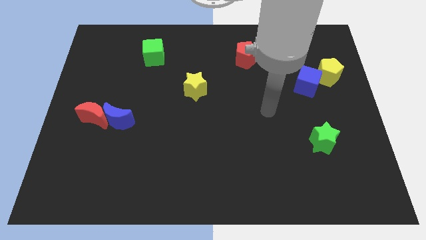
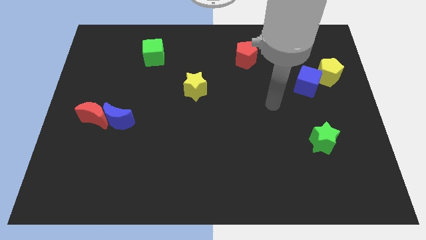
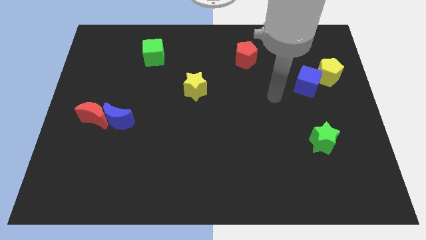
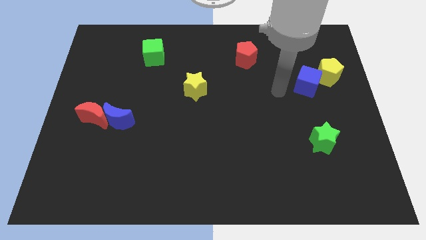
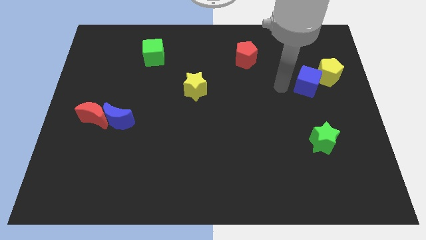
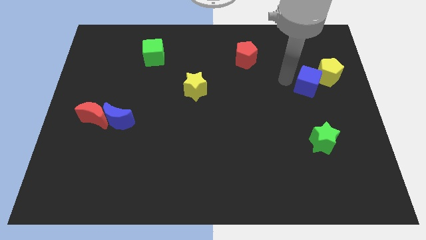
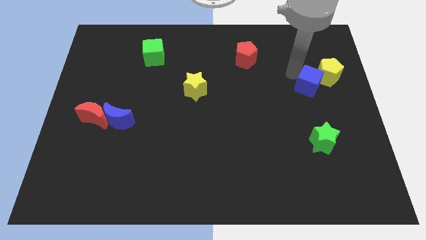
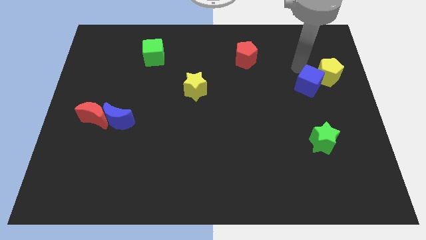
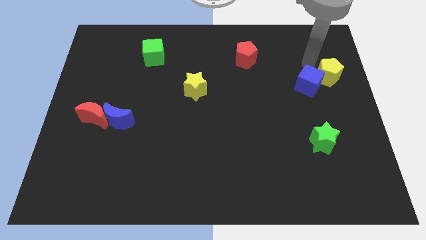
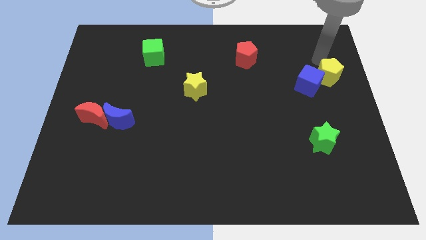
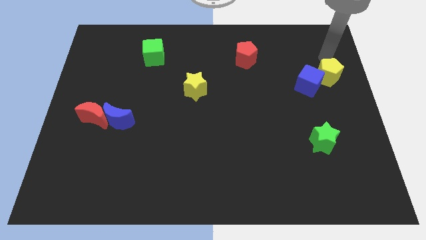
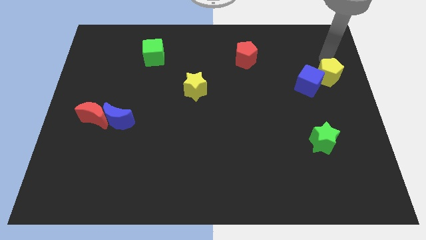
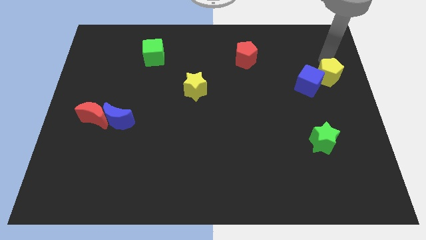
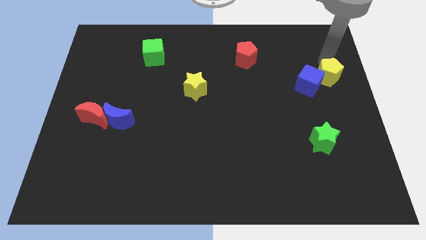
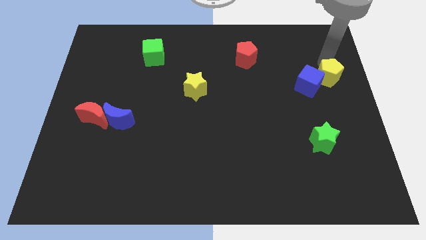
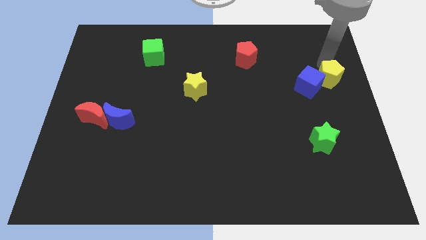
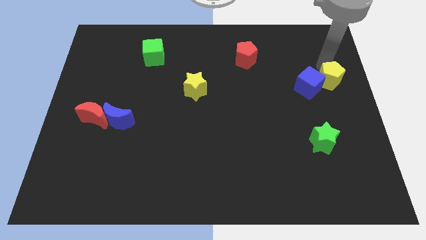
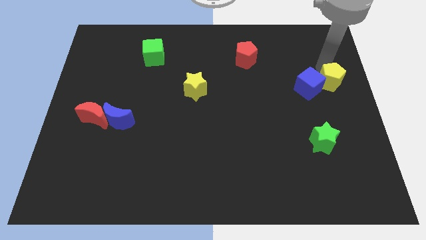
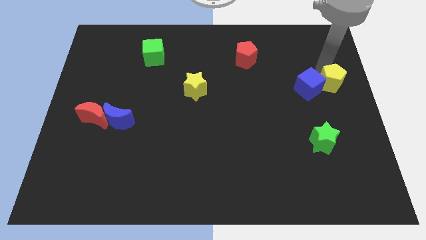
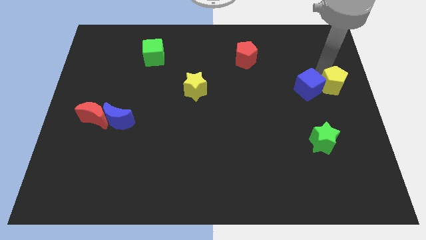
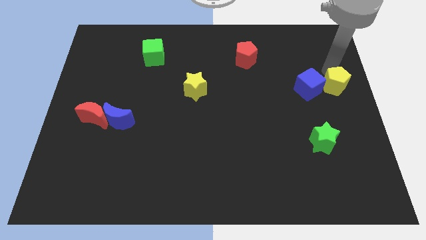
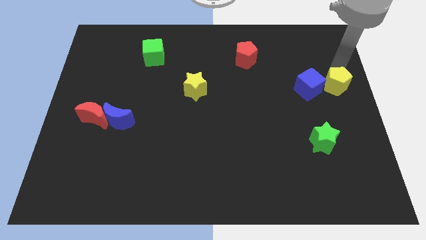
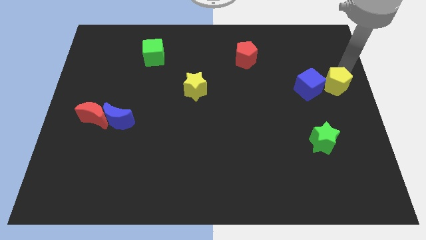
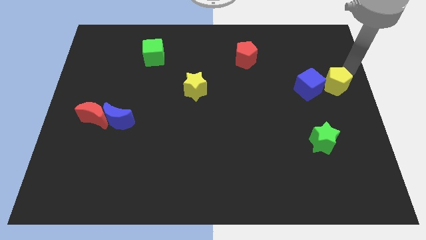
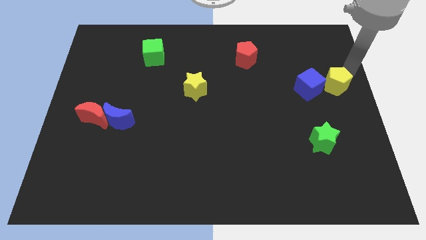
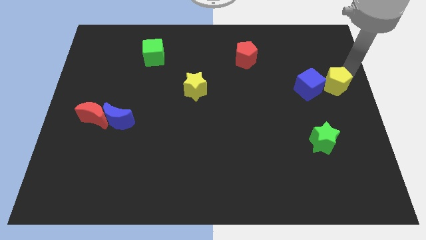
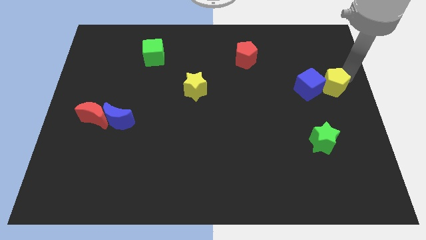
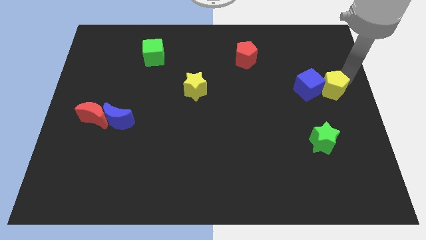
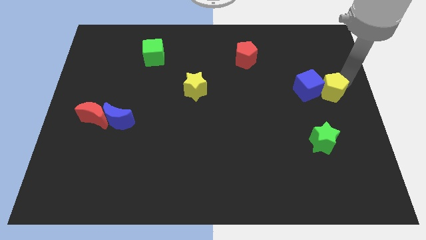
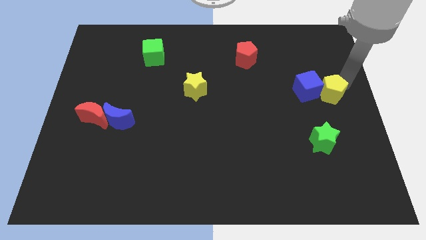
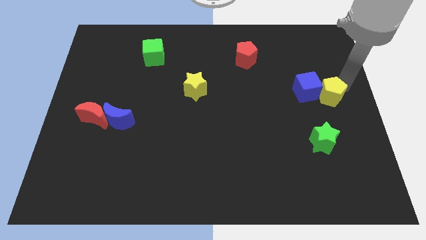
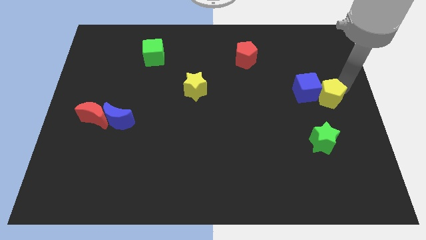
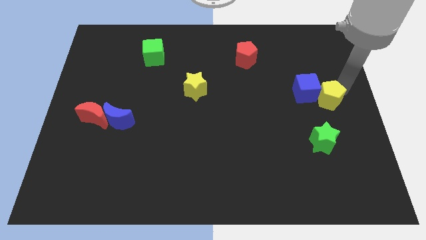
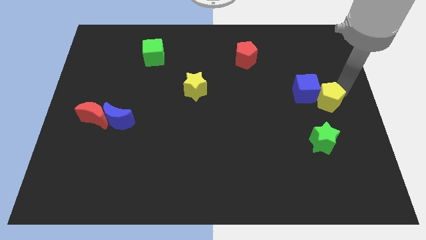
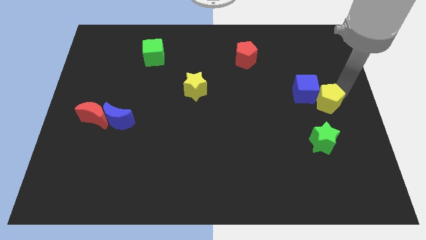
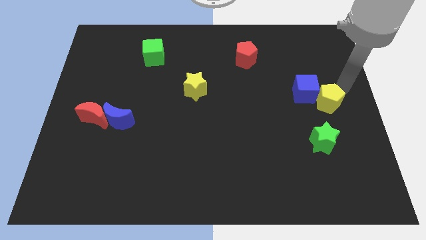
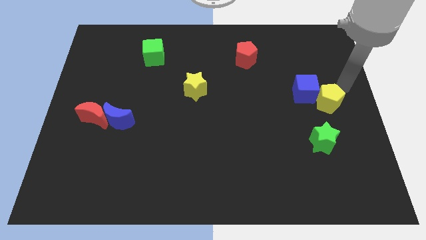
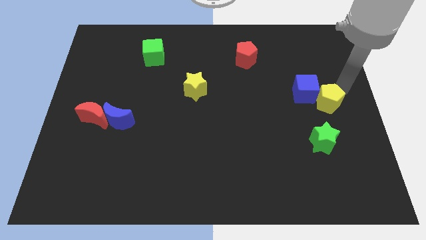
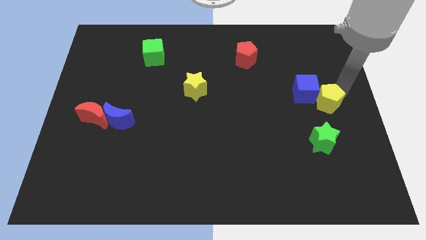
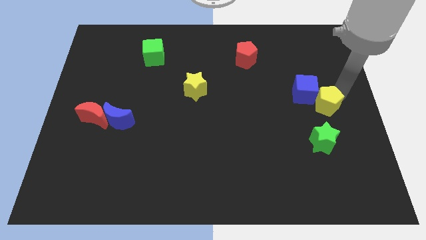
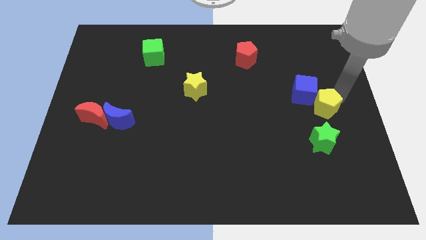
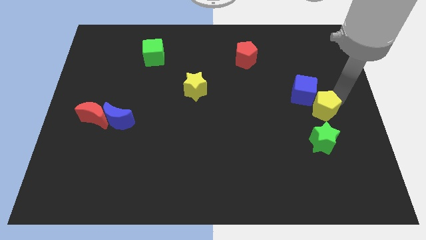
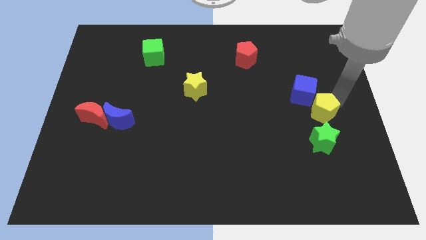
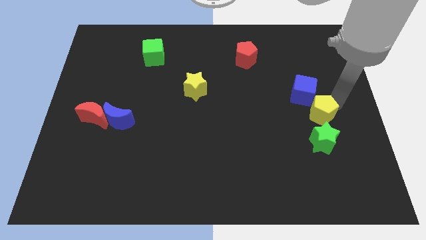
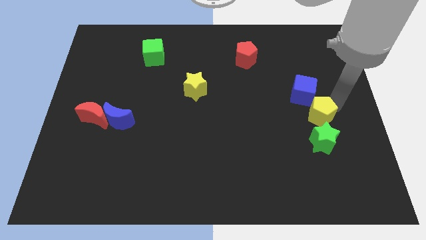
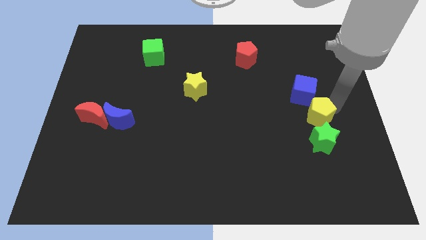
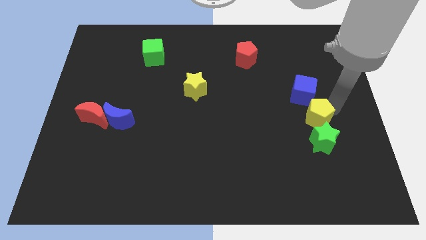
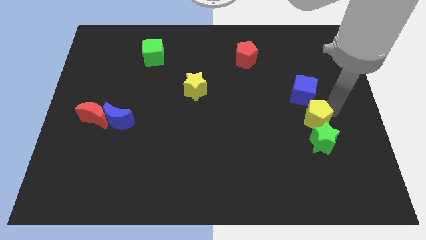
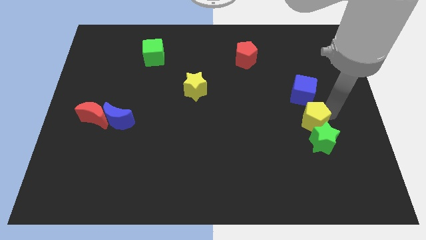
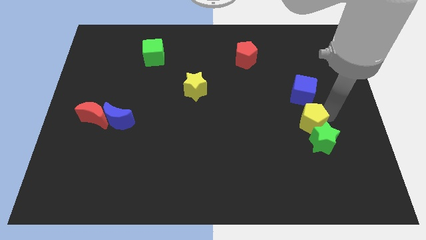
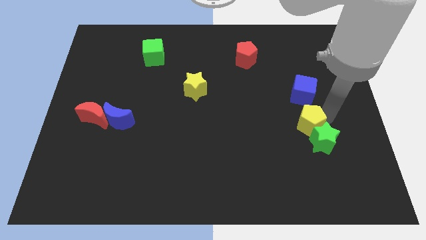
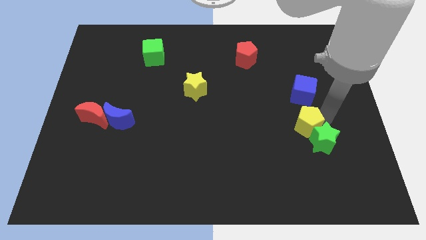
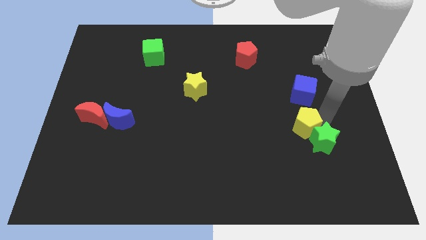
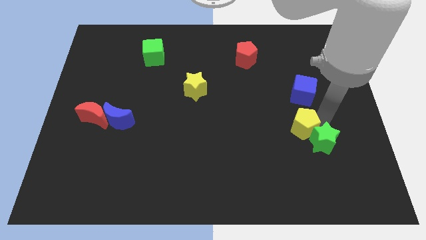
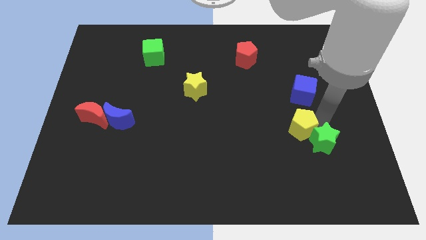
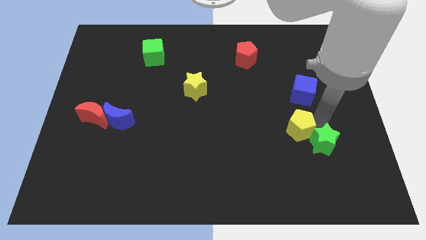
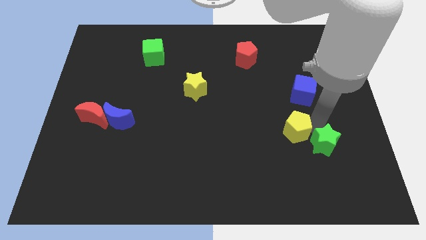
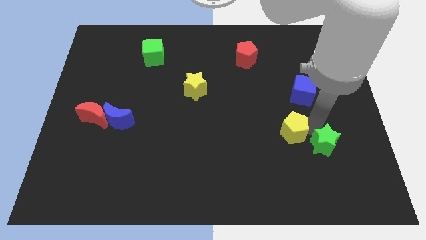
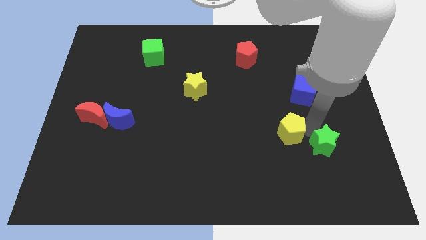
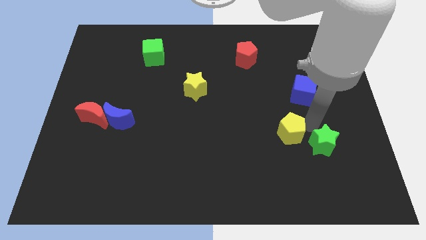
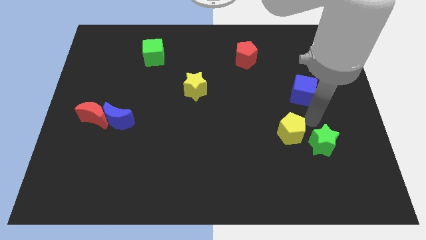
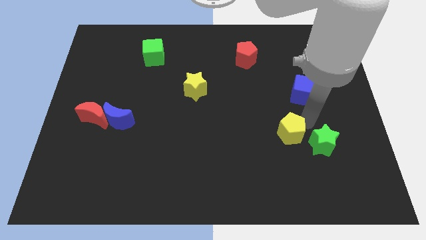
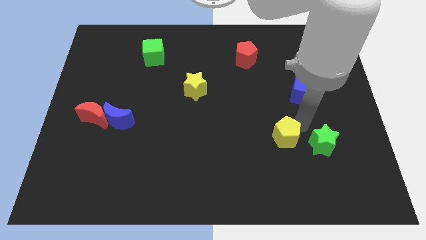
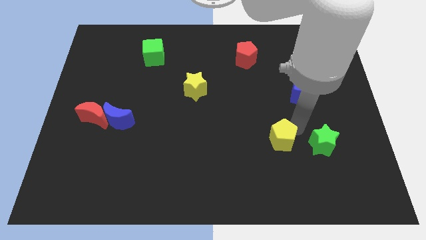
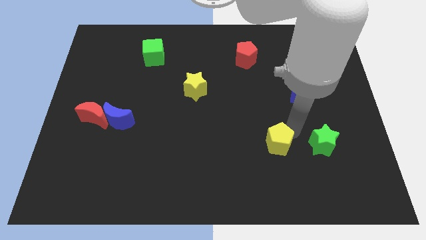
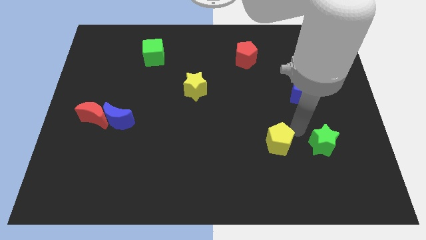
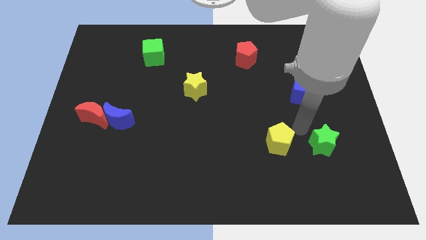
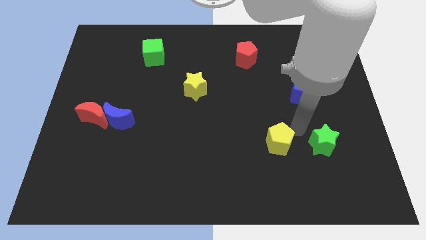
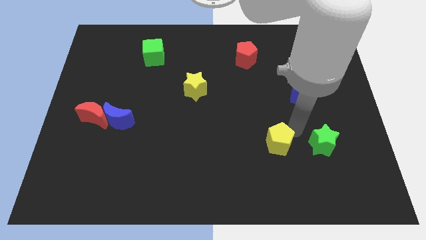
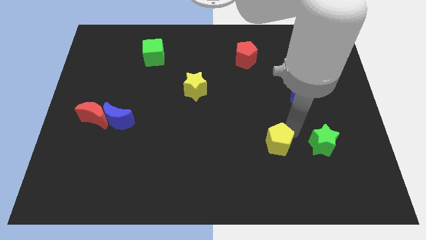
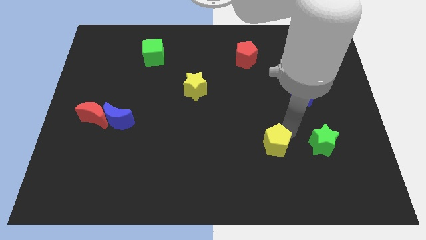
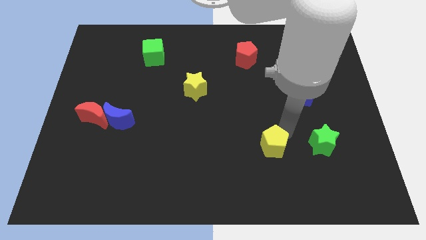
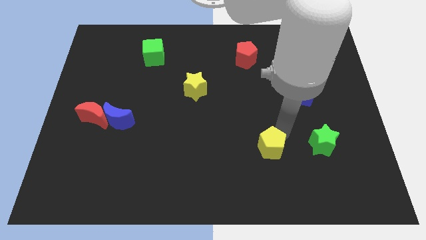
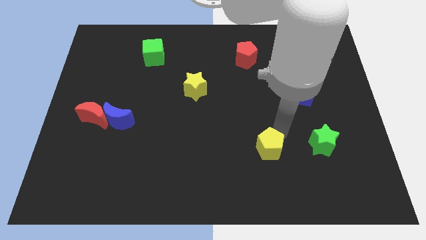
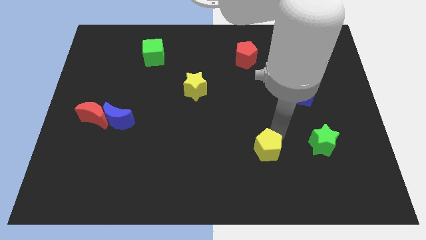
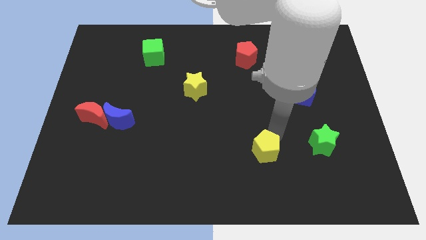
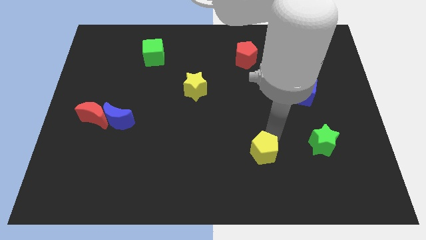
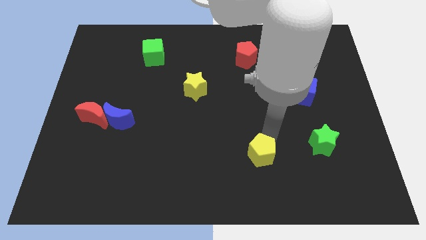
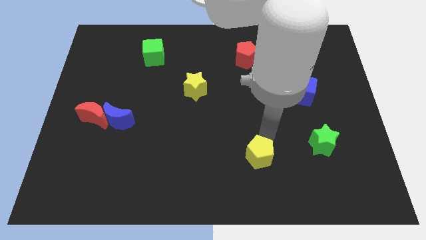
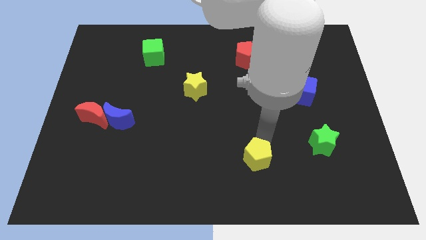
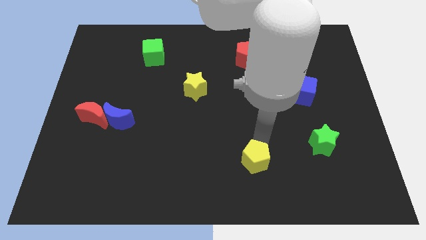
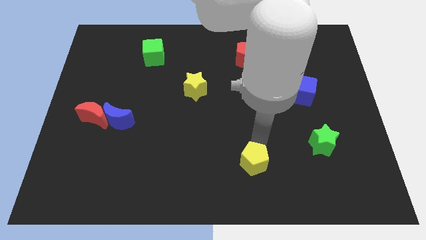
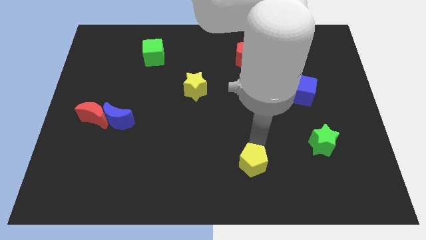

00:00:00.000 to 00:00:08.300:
put the yellow pentagon to the bottom
